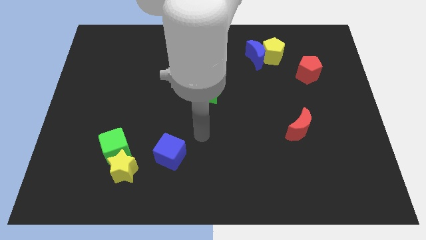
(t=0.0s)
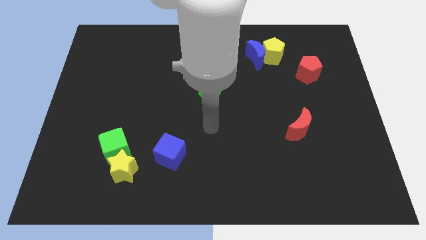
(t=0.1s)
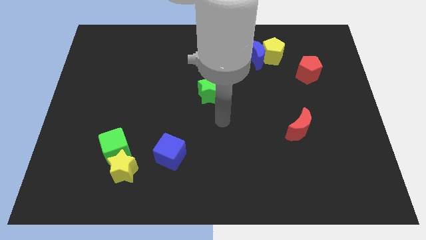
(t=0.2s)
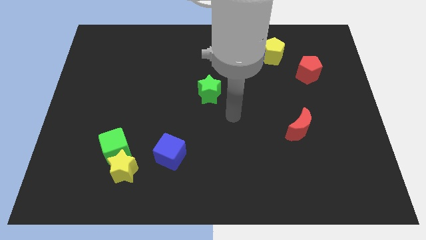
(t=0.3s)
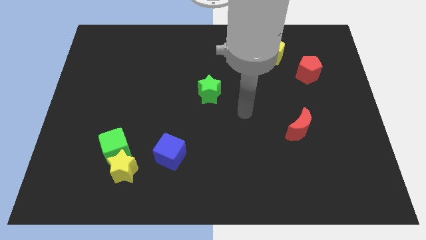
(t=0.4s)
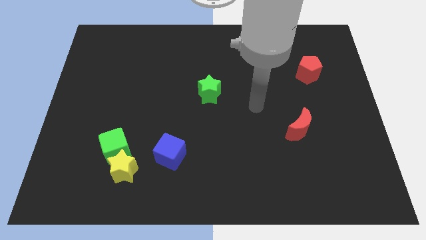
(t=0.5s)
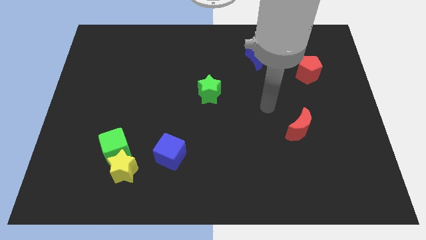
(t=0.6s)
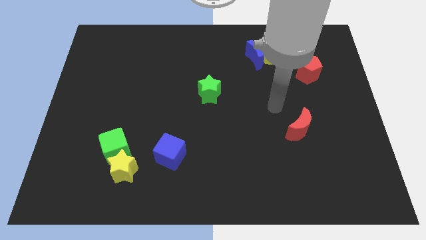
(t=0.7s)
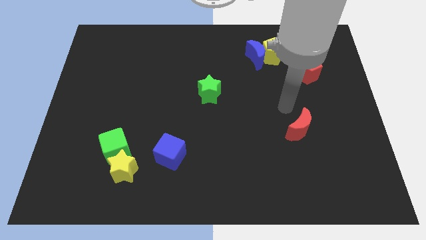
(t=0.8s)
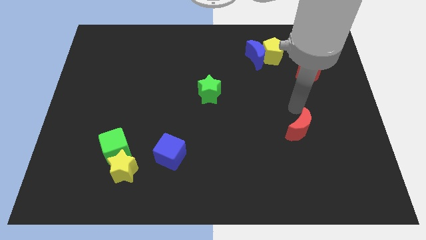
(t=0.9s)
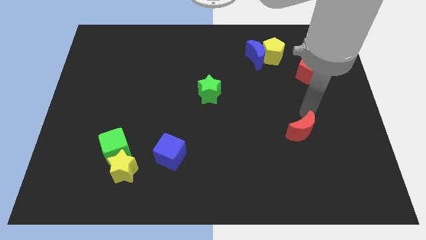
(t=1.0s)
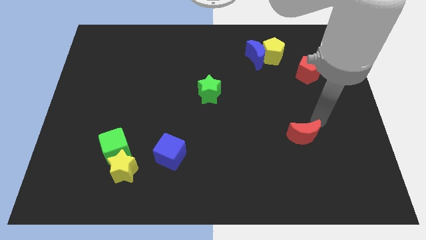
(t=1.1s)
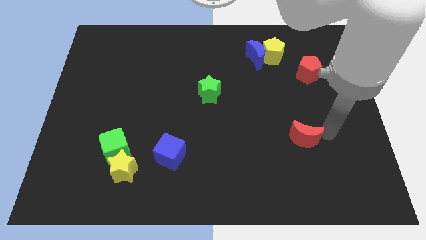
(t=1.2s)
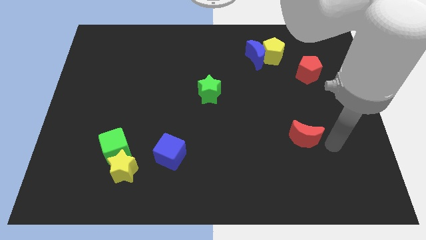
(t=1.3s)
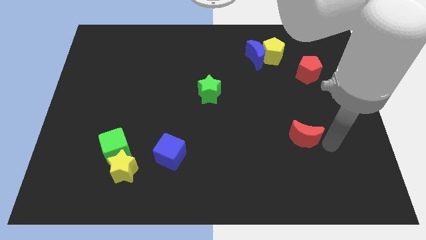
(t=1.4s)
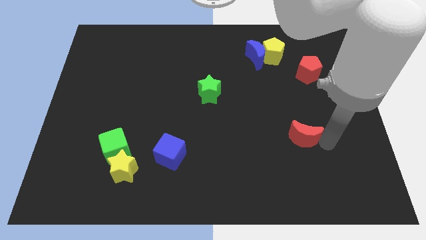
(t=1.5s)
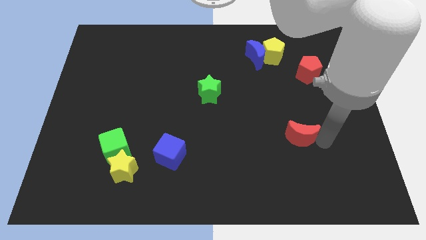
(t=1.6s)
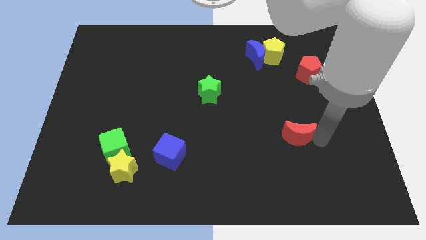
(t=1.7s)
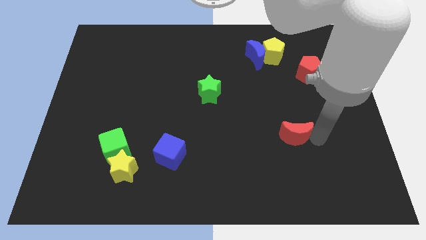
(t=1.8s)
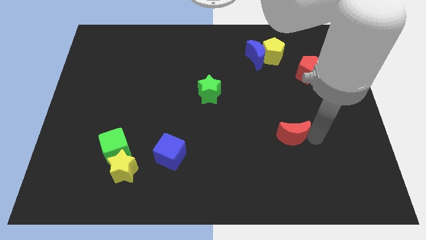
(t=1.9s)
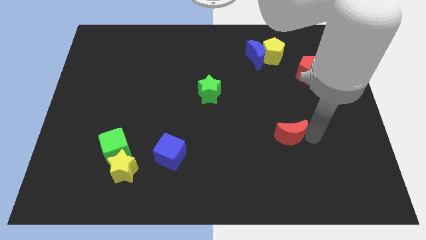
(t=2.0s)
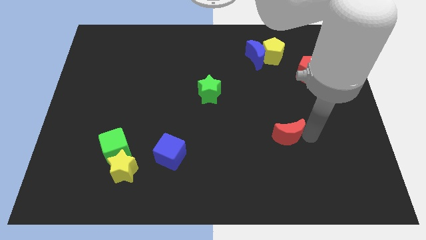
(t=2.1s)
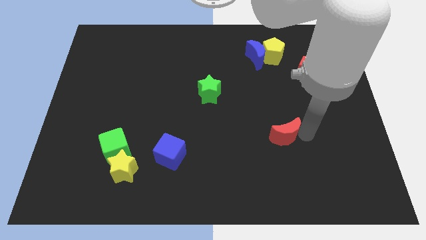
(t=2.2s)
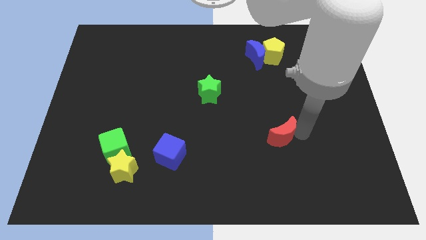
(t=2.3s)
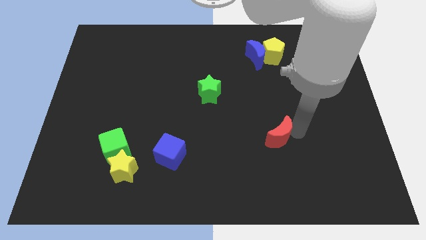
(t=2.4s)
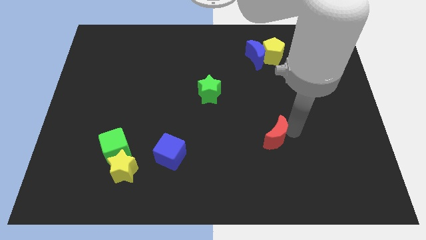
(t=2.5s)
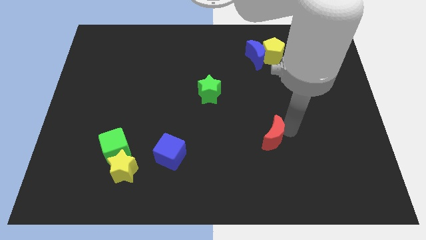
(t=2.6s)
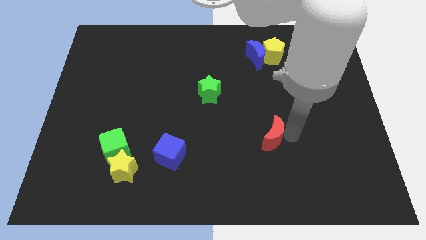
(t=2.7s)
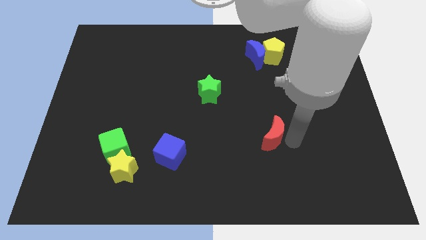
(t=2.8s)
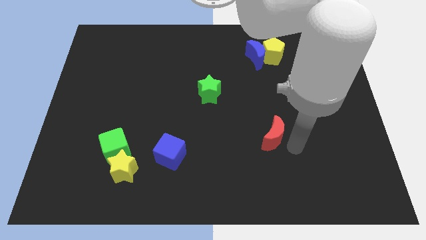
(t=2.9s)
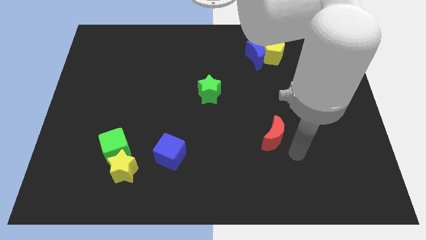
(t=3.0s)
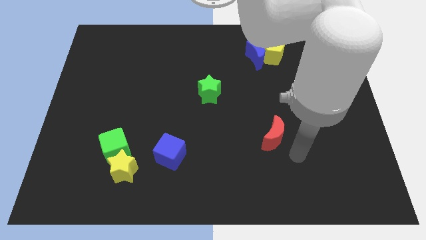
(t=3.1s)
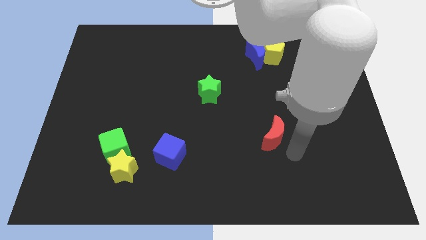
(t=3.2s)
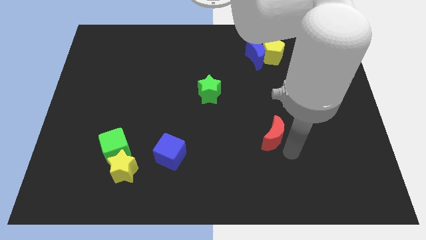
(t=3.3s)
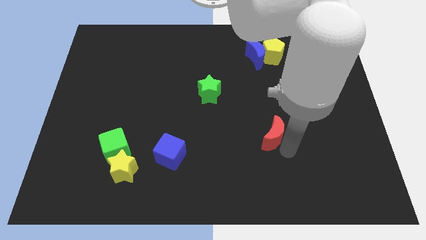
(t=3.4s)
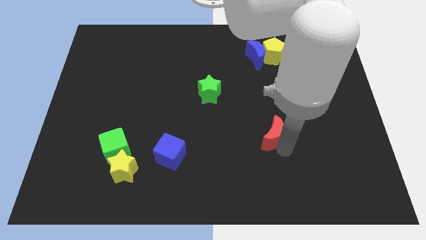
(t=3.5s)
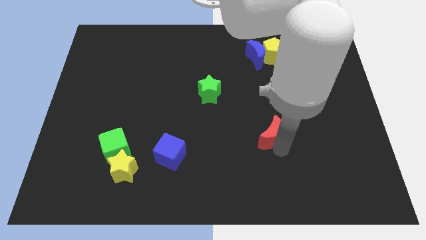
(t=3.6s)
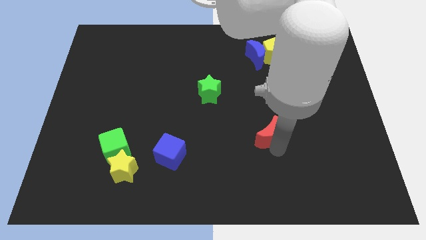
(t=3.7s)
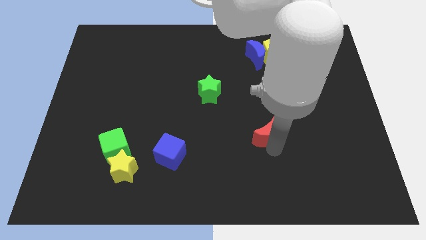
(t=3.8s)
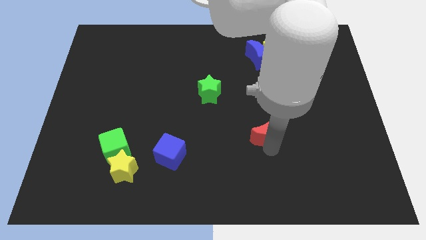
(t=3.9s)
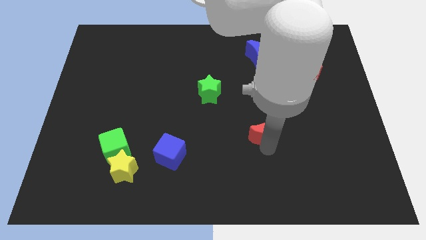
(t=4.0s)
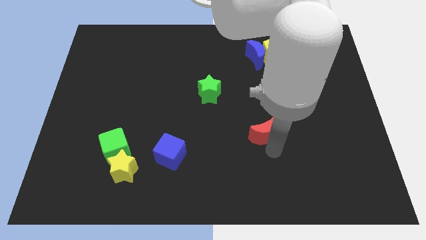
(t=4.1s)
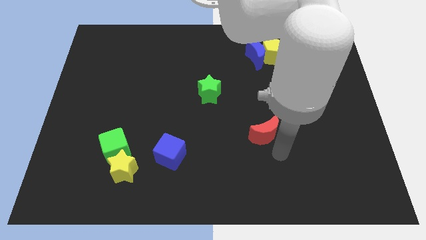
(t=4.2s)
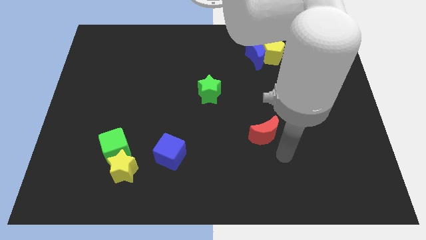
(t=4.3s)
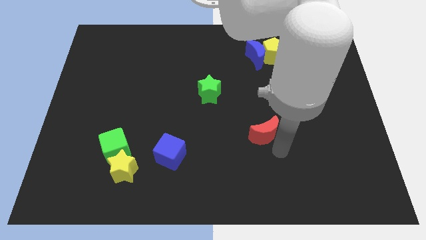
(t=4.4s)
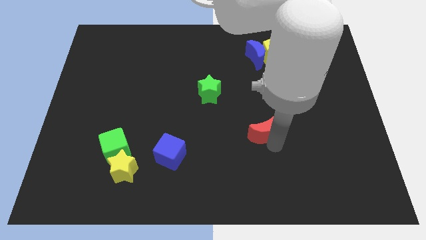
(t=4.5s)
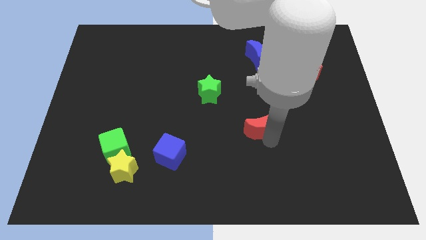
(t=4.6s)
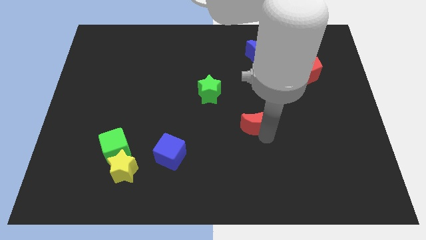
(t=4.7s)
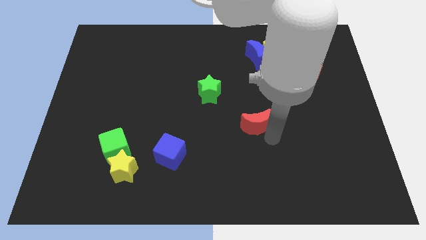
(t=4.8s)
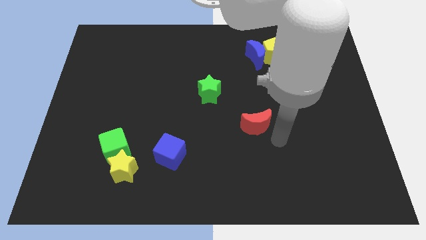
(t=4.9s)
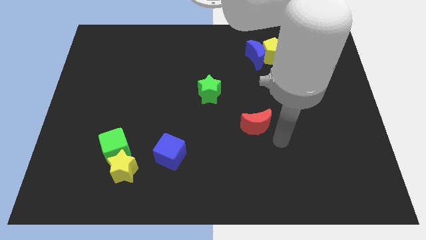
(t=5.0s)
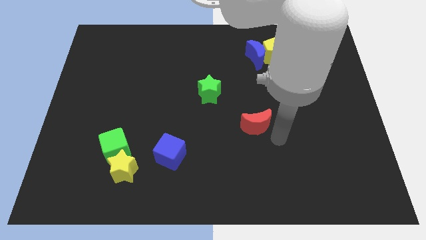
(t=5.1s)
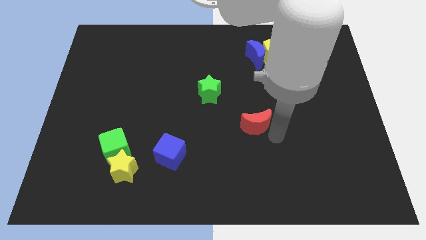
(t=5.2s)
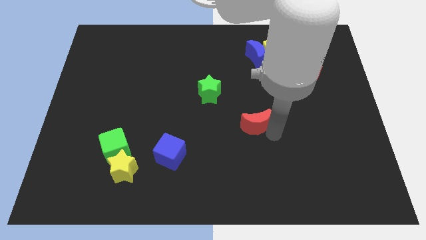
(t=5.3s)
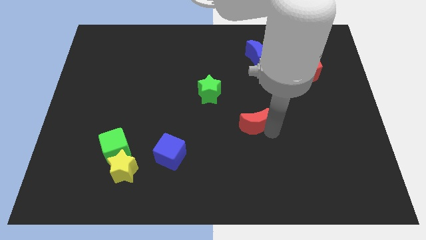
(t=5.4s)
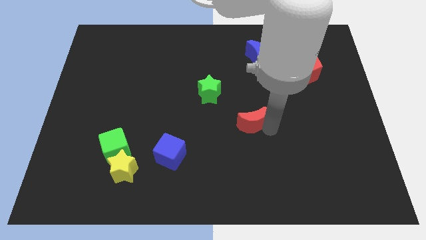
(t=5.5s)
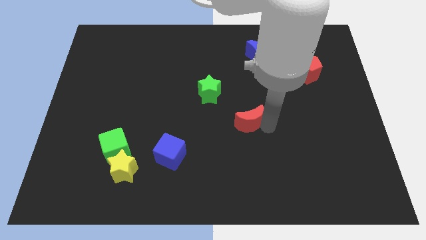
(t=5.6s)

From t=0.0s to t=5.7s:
push the red moon to the bottom right of the green star

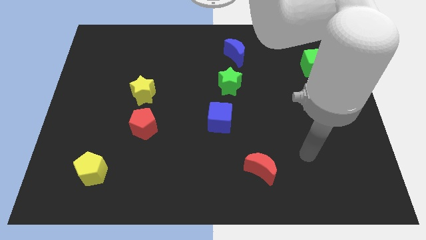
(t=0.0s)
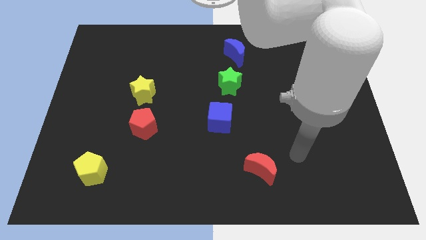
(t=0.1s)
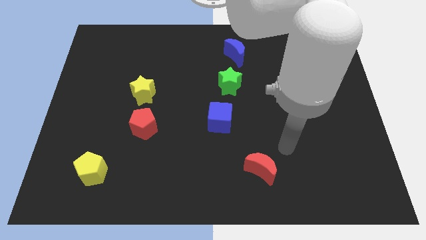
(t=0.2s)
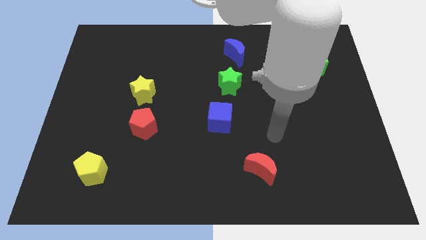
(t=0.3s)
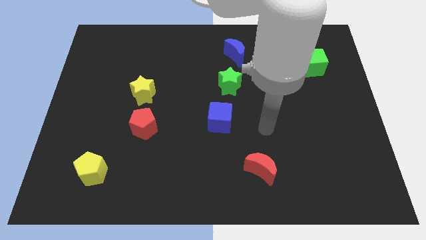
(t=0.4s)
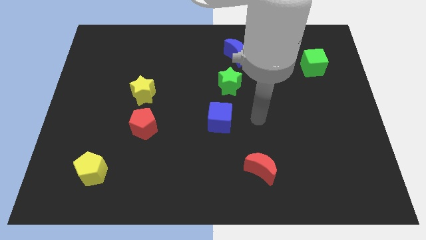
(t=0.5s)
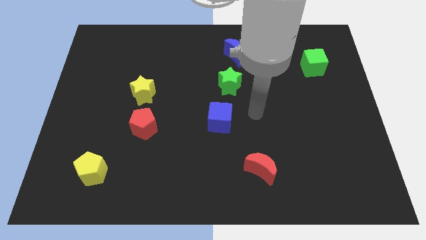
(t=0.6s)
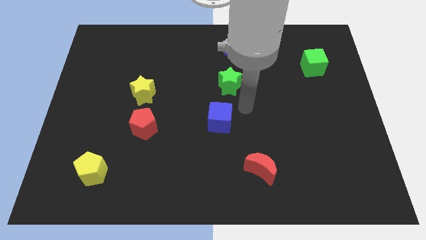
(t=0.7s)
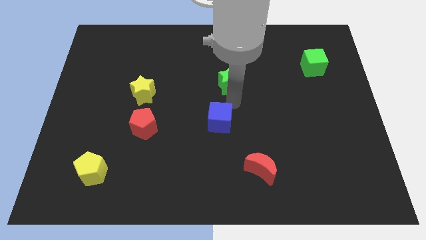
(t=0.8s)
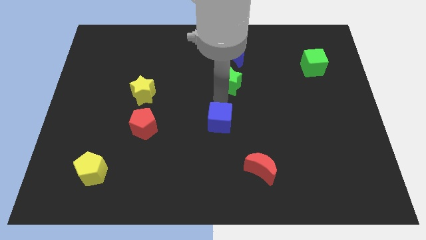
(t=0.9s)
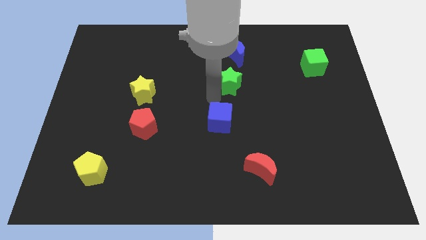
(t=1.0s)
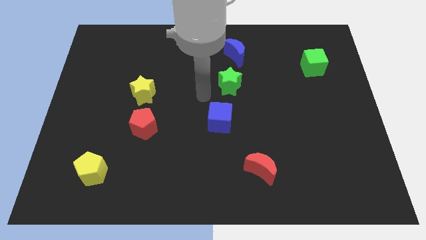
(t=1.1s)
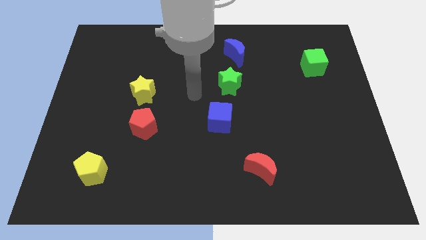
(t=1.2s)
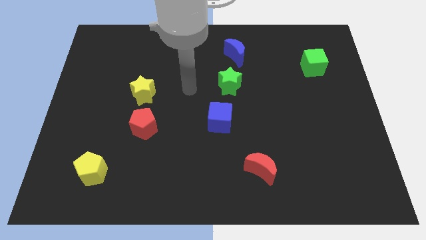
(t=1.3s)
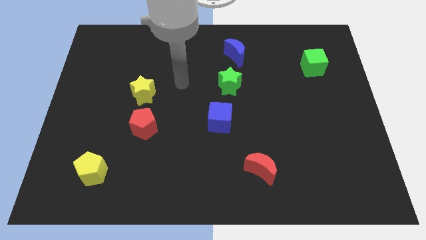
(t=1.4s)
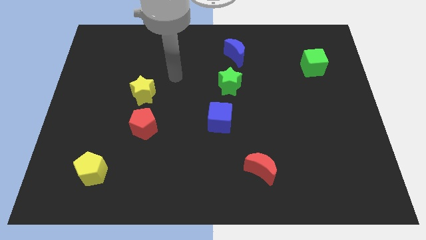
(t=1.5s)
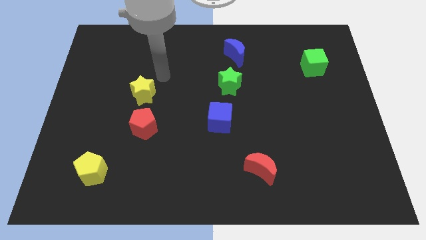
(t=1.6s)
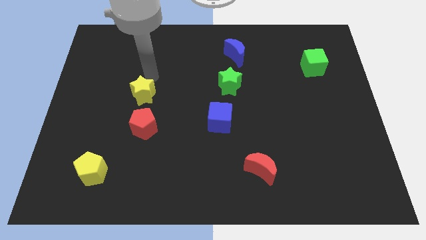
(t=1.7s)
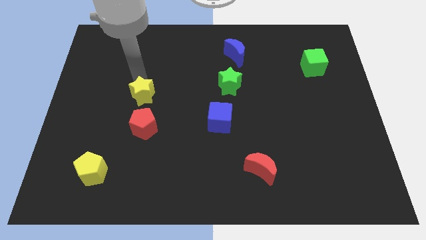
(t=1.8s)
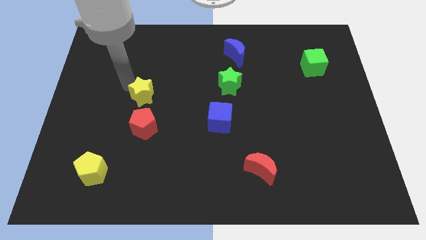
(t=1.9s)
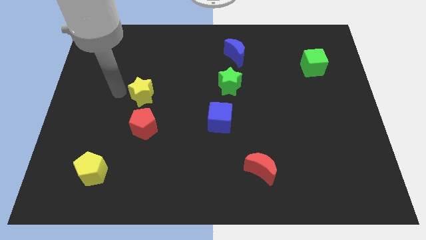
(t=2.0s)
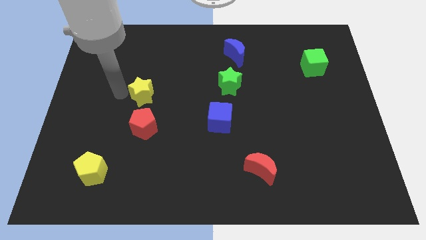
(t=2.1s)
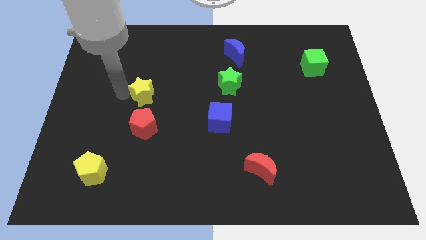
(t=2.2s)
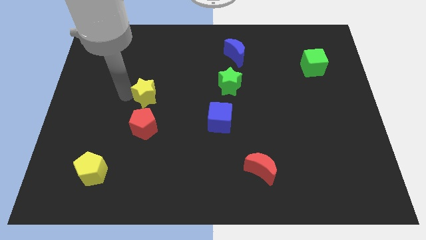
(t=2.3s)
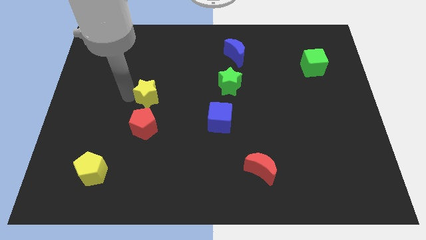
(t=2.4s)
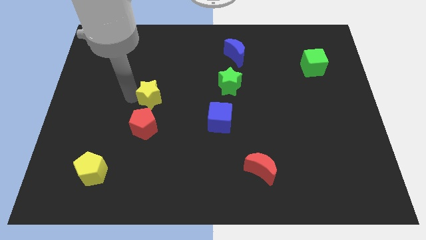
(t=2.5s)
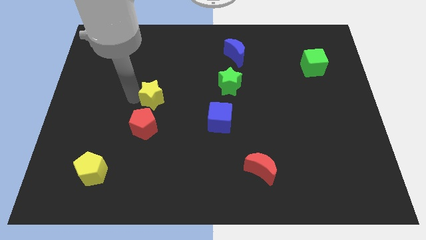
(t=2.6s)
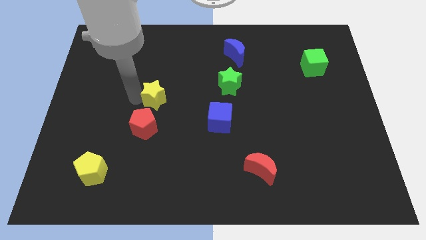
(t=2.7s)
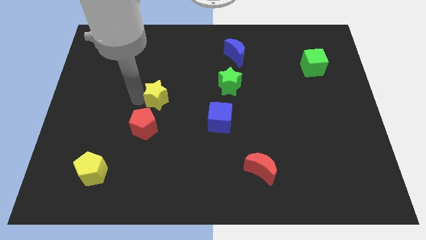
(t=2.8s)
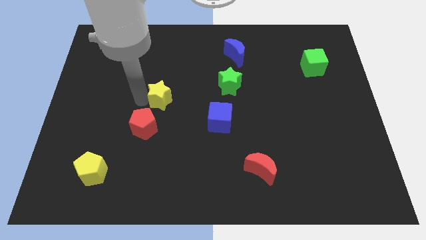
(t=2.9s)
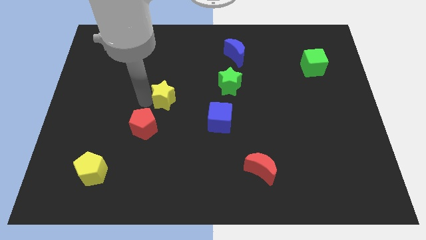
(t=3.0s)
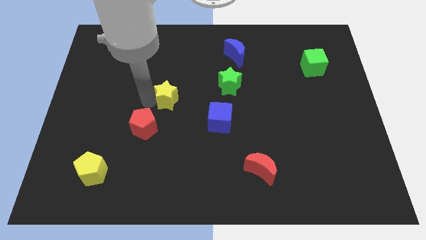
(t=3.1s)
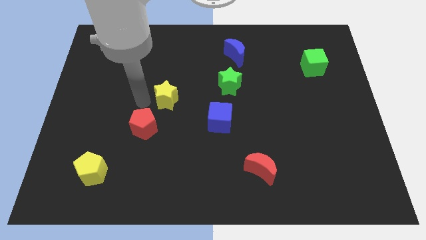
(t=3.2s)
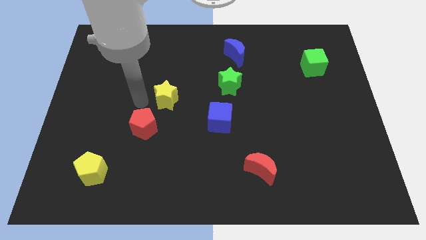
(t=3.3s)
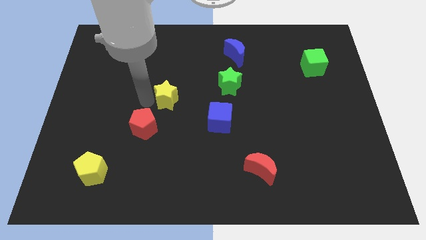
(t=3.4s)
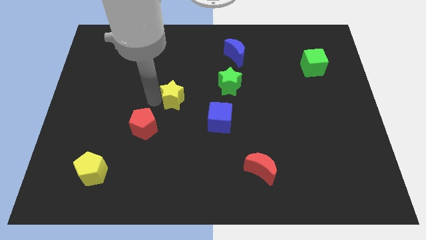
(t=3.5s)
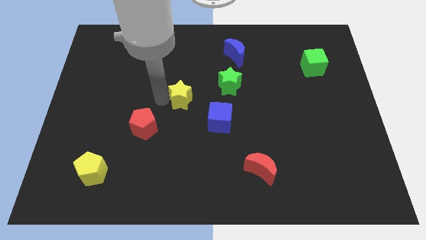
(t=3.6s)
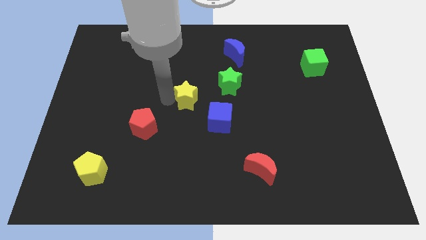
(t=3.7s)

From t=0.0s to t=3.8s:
push the yellow star to the bottom left of the green star
